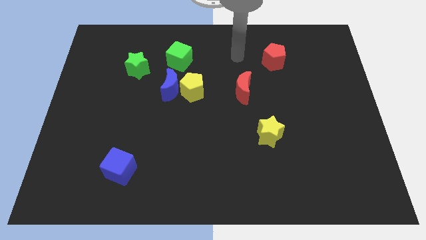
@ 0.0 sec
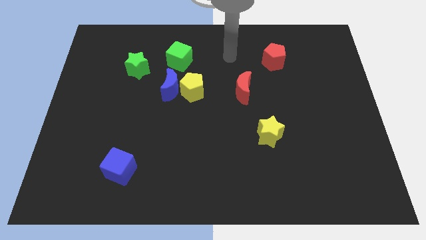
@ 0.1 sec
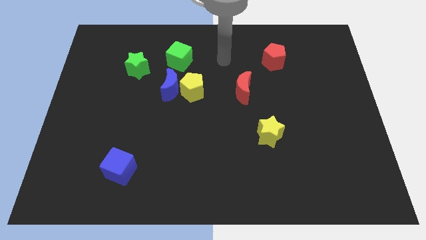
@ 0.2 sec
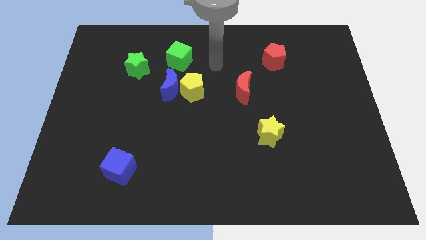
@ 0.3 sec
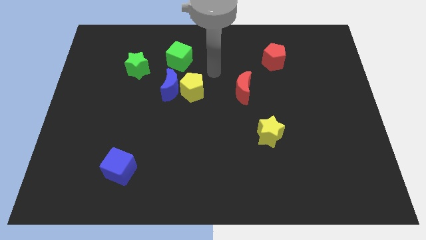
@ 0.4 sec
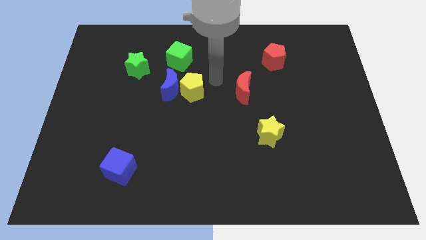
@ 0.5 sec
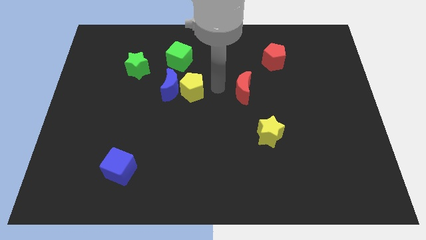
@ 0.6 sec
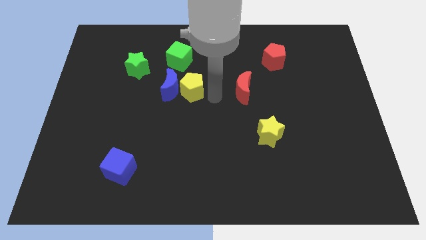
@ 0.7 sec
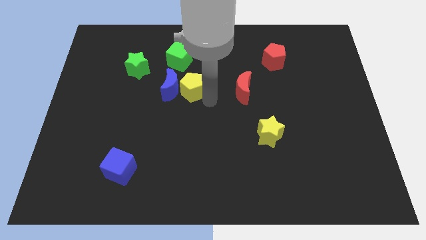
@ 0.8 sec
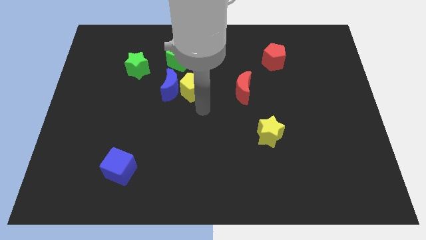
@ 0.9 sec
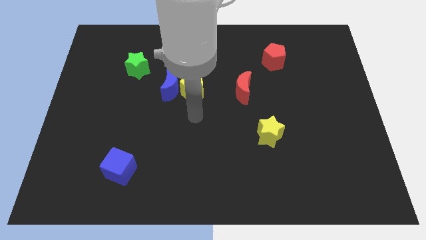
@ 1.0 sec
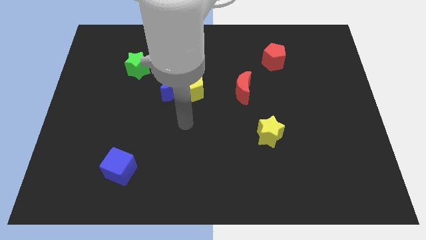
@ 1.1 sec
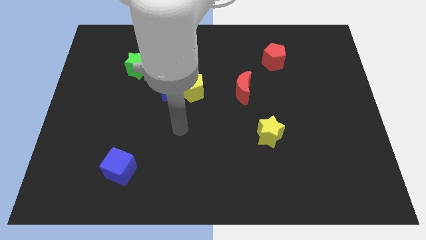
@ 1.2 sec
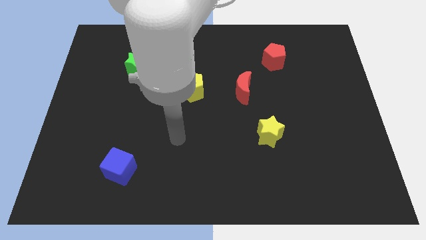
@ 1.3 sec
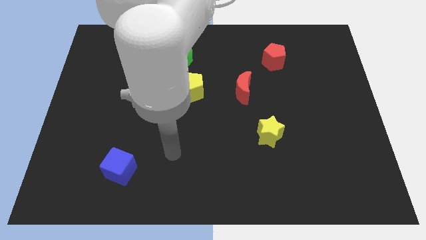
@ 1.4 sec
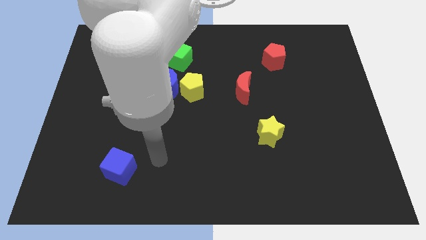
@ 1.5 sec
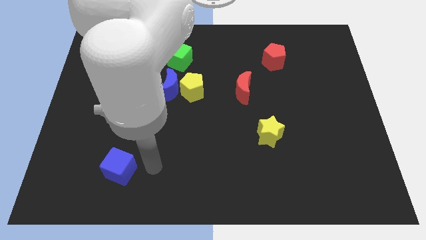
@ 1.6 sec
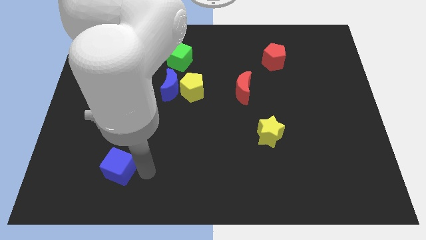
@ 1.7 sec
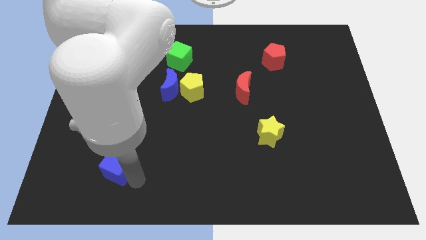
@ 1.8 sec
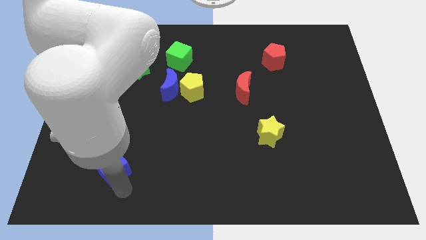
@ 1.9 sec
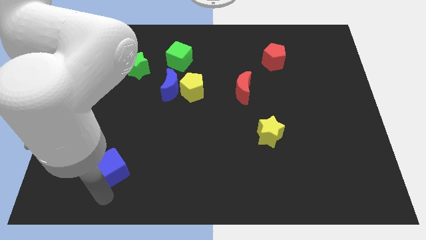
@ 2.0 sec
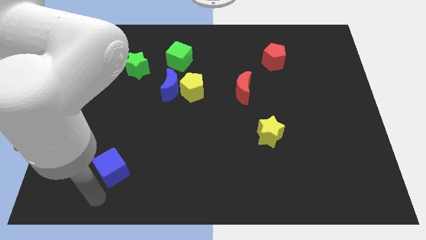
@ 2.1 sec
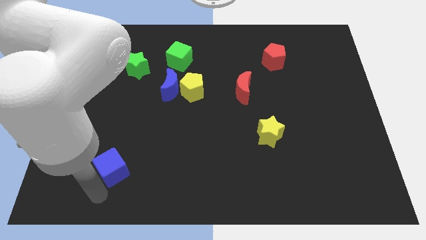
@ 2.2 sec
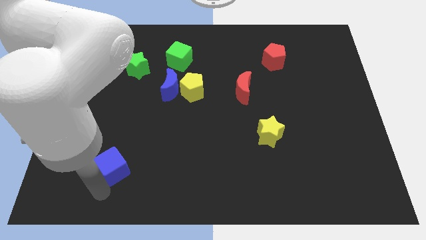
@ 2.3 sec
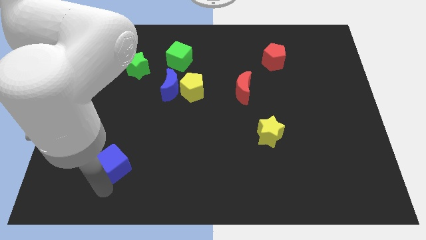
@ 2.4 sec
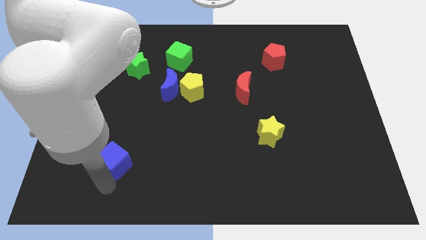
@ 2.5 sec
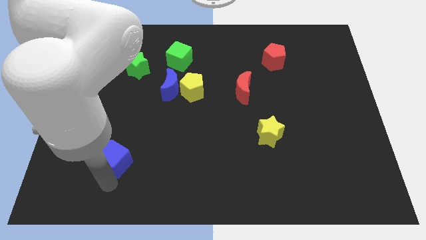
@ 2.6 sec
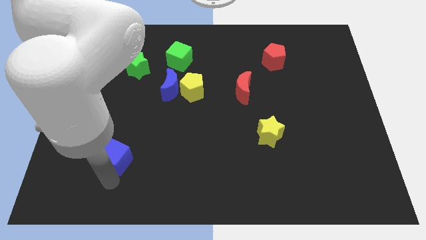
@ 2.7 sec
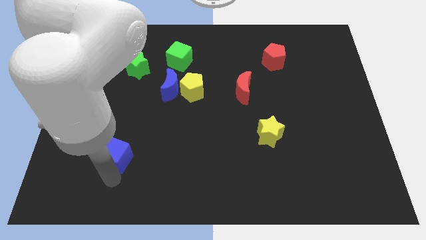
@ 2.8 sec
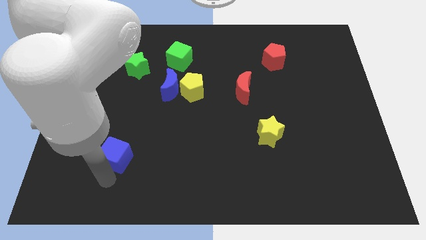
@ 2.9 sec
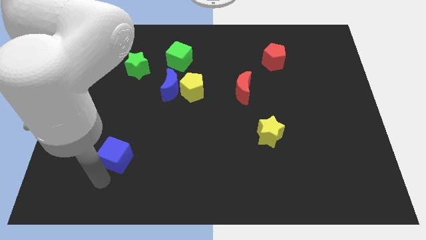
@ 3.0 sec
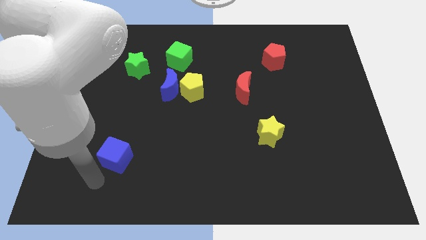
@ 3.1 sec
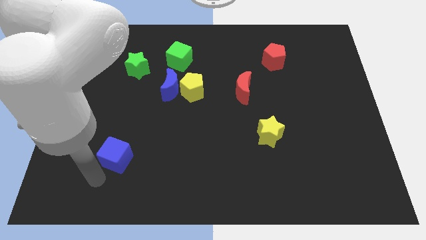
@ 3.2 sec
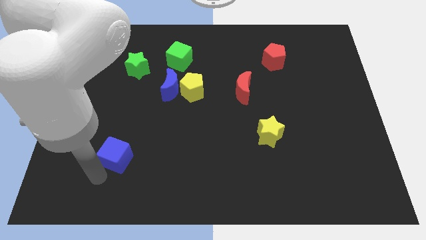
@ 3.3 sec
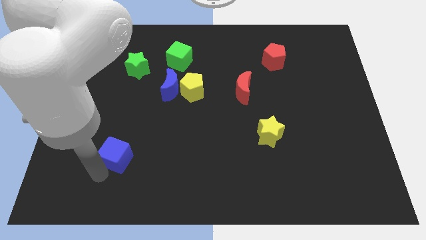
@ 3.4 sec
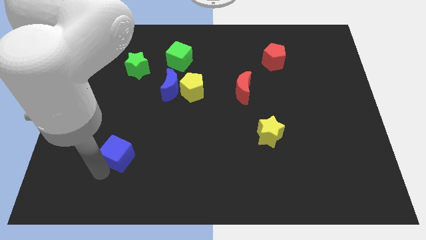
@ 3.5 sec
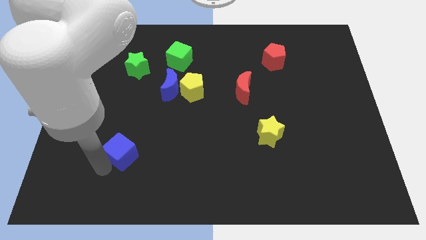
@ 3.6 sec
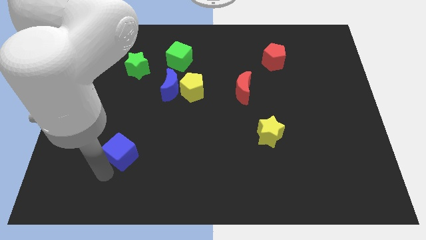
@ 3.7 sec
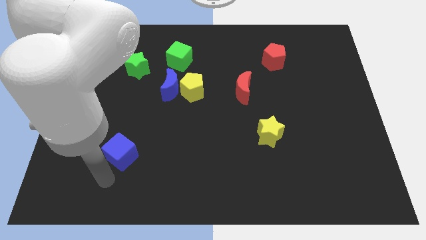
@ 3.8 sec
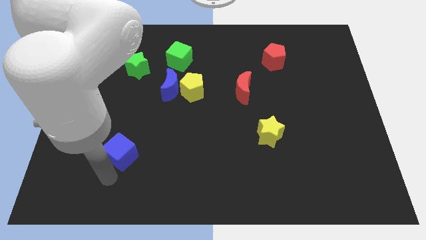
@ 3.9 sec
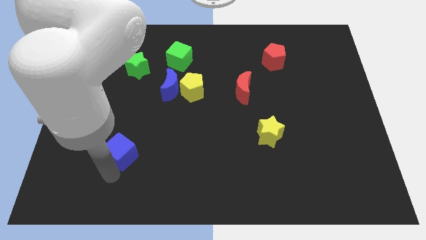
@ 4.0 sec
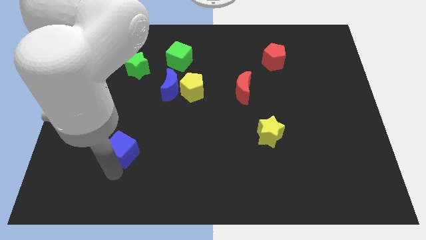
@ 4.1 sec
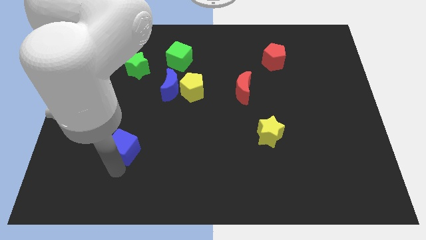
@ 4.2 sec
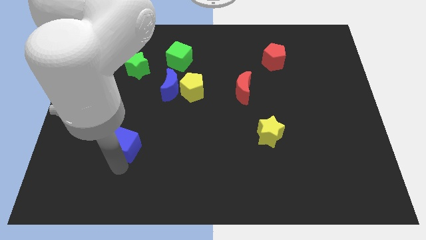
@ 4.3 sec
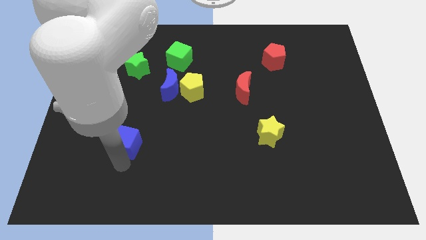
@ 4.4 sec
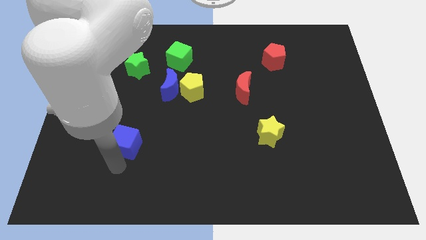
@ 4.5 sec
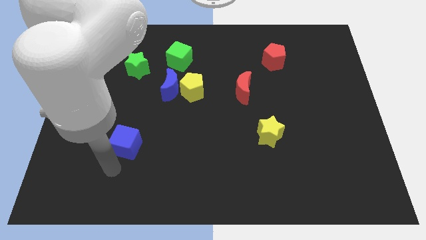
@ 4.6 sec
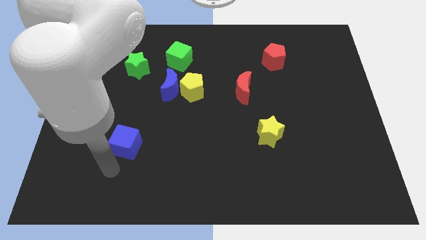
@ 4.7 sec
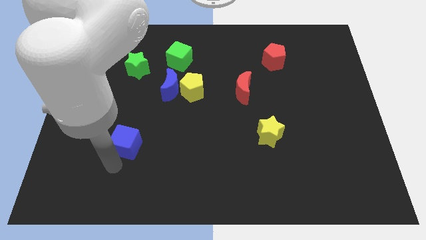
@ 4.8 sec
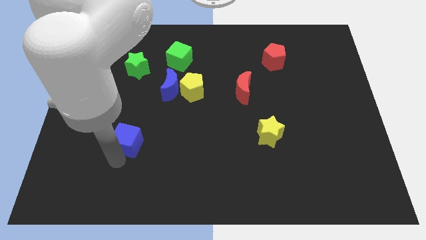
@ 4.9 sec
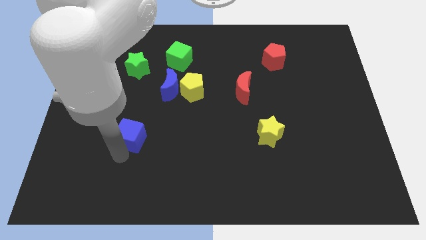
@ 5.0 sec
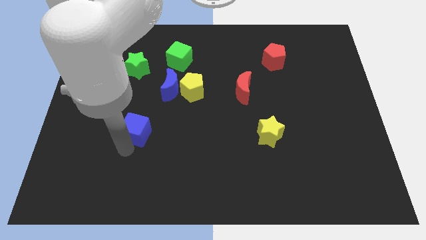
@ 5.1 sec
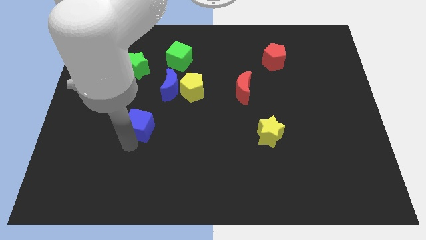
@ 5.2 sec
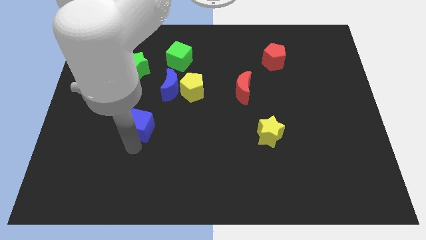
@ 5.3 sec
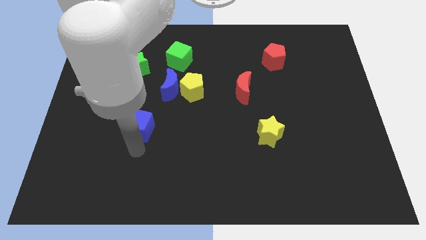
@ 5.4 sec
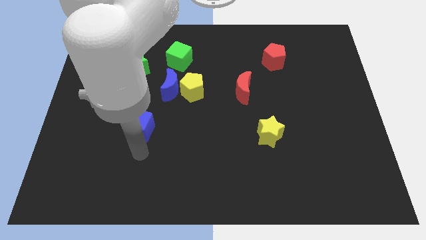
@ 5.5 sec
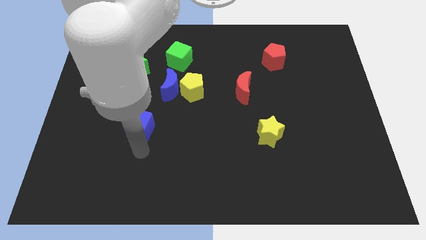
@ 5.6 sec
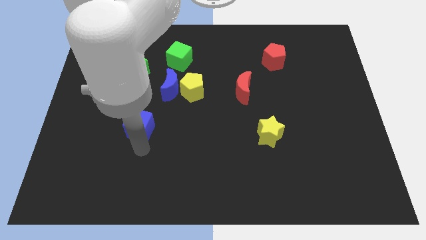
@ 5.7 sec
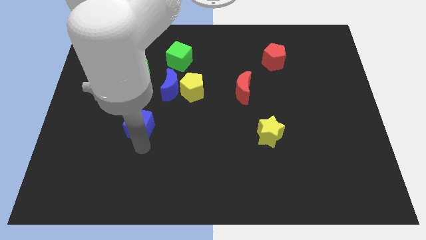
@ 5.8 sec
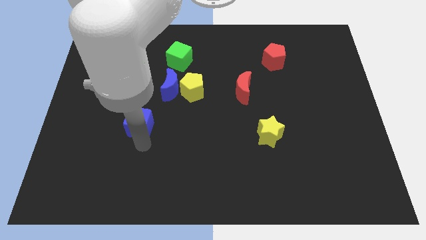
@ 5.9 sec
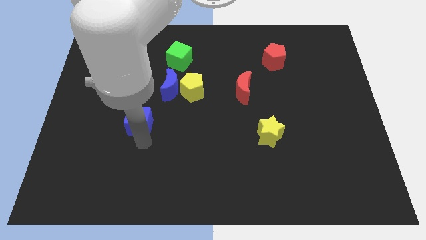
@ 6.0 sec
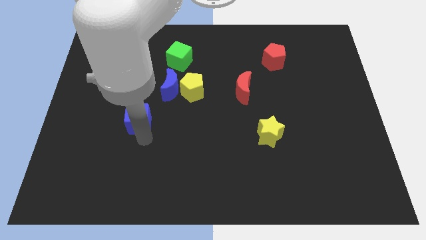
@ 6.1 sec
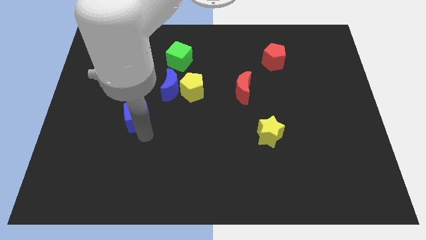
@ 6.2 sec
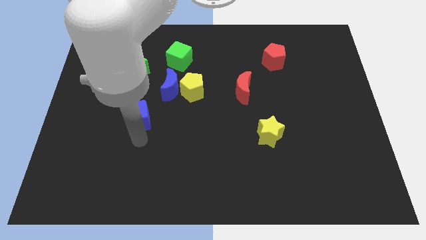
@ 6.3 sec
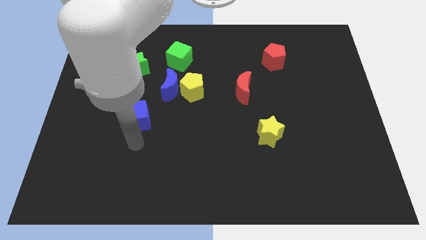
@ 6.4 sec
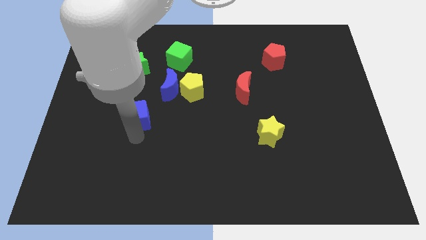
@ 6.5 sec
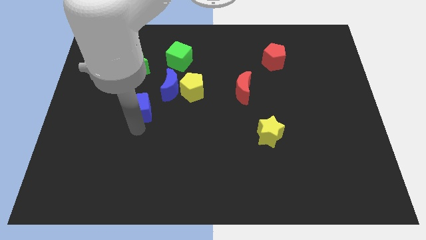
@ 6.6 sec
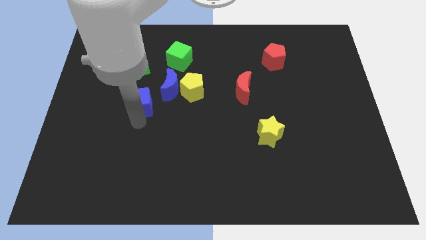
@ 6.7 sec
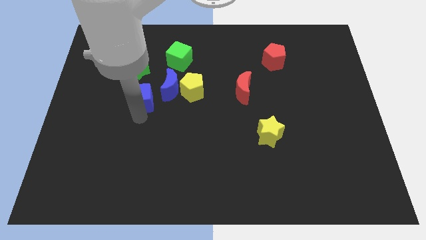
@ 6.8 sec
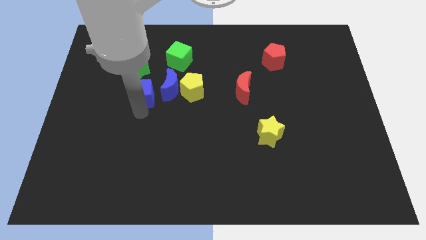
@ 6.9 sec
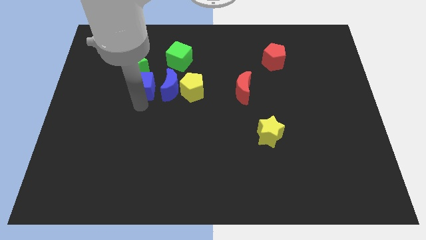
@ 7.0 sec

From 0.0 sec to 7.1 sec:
put the blue cube diagonally down and to the left of the green cube

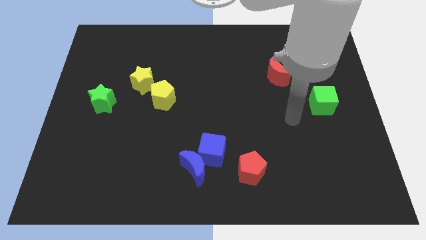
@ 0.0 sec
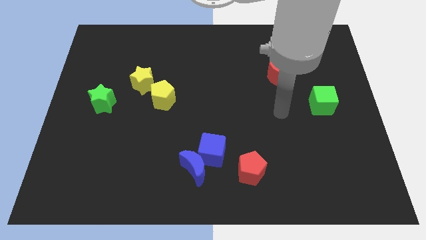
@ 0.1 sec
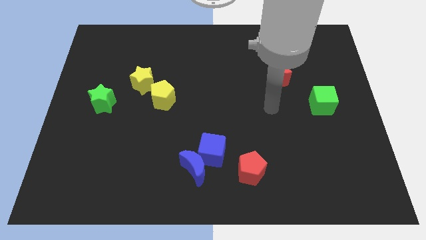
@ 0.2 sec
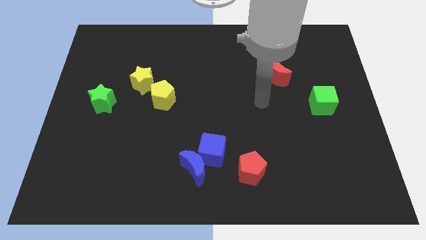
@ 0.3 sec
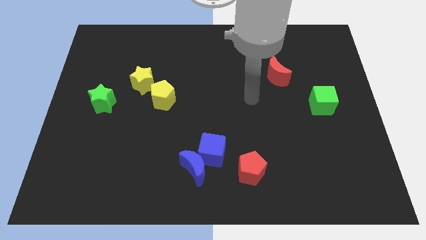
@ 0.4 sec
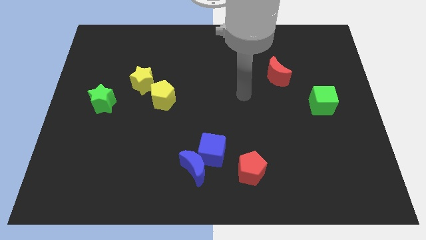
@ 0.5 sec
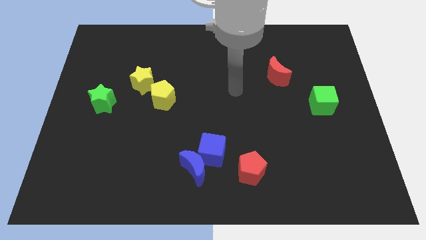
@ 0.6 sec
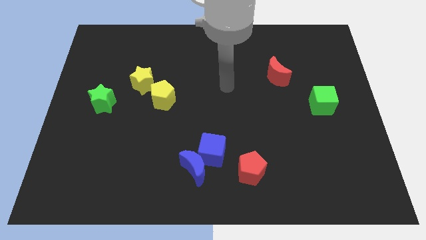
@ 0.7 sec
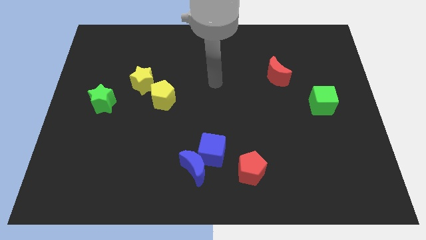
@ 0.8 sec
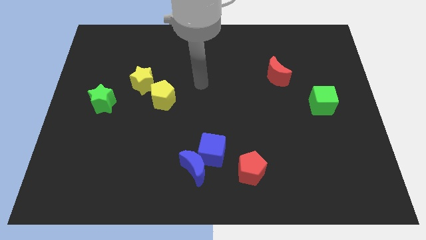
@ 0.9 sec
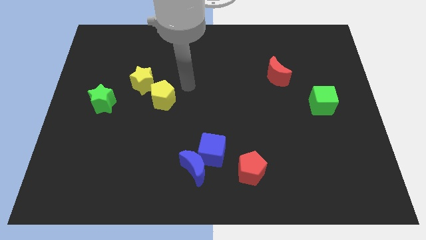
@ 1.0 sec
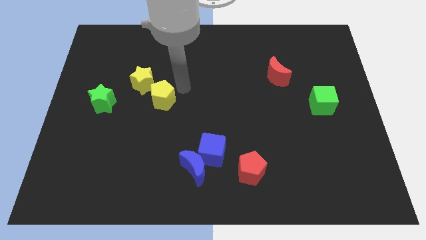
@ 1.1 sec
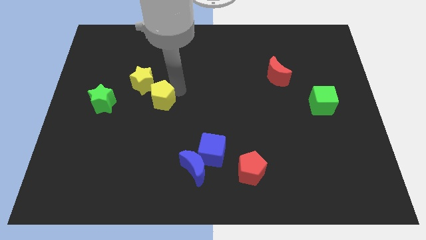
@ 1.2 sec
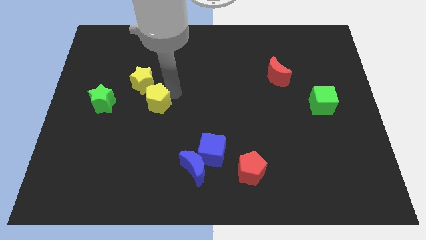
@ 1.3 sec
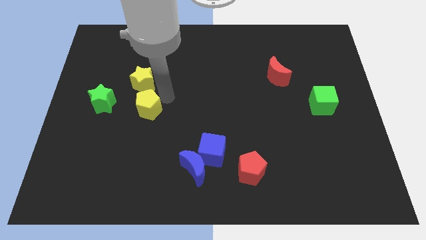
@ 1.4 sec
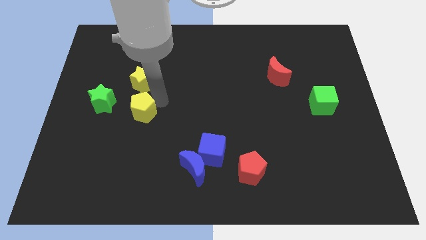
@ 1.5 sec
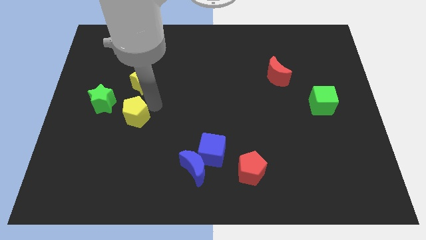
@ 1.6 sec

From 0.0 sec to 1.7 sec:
push the yellow pentagon diagonally down and to the right of the green star
